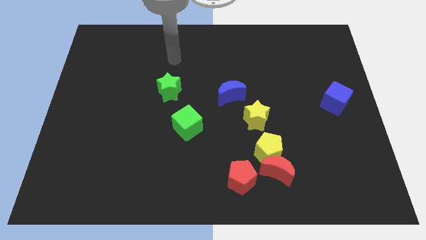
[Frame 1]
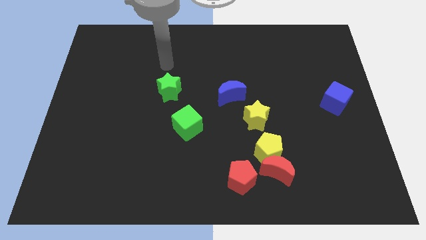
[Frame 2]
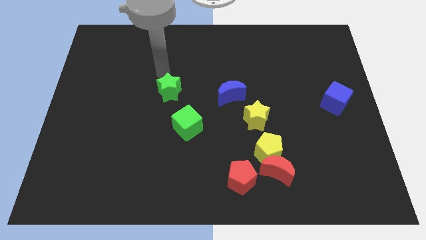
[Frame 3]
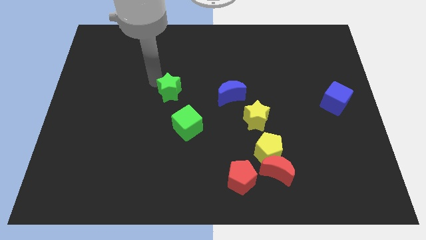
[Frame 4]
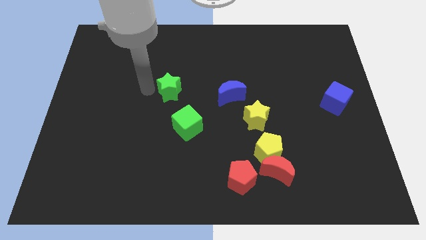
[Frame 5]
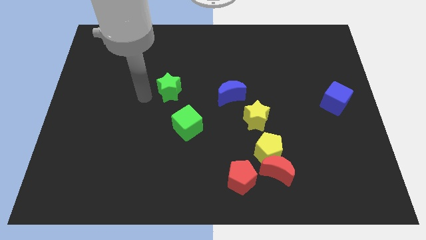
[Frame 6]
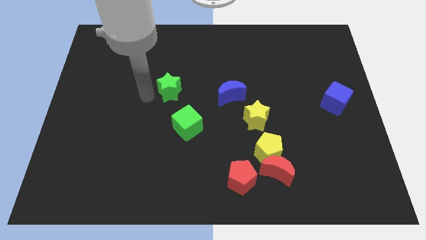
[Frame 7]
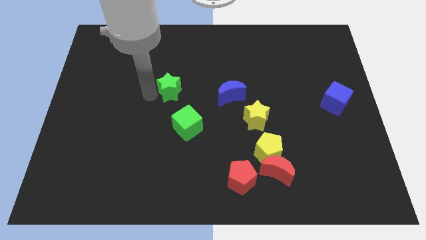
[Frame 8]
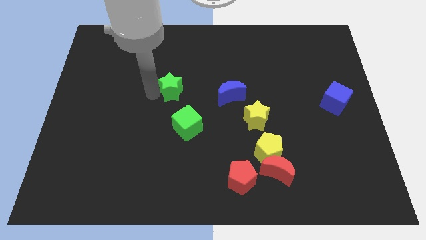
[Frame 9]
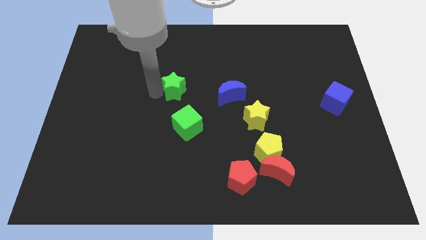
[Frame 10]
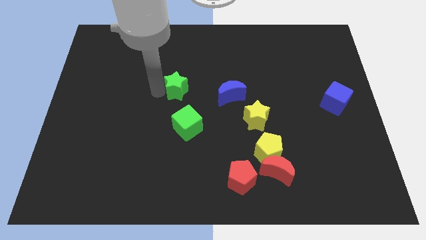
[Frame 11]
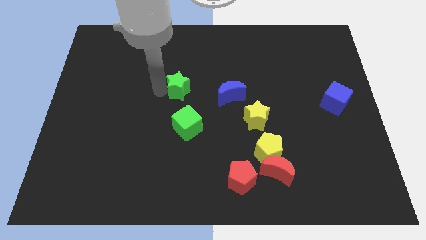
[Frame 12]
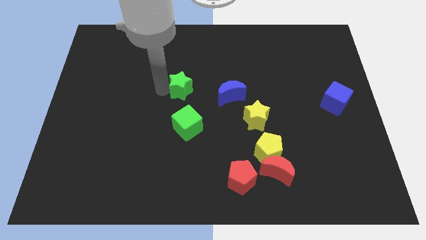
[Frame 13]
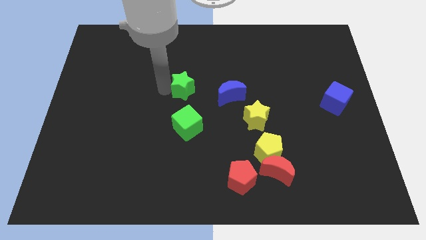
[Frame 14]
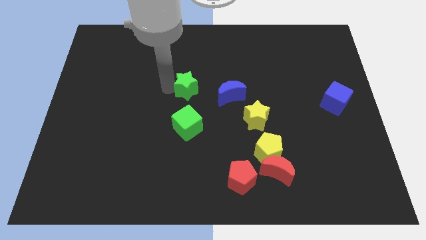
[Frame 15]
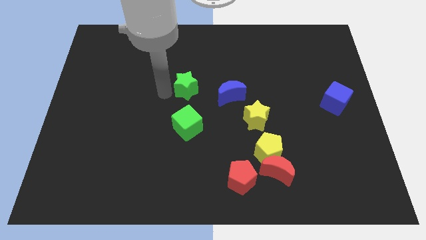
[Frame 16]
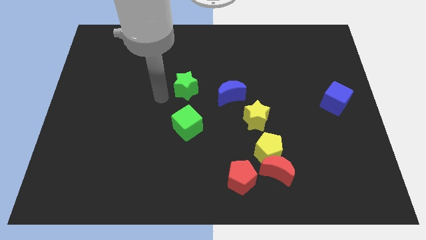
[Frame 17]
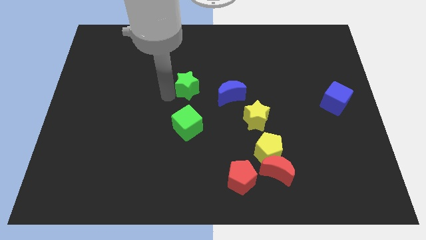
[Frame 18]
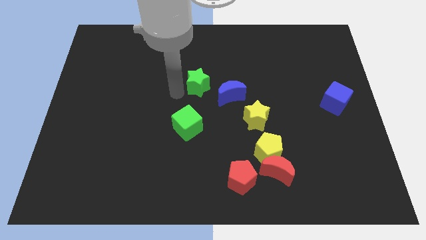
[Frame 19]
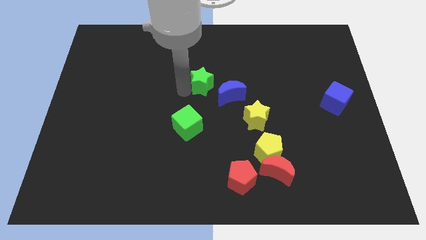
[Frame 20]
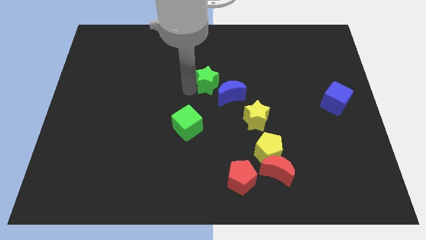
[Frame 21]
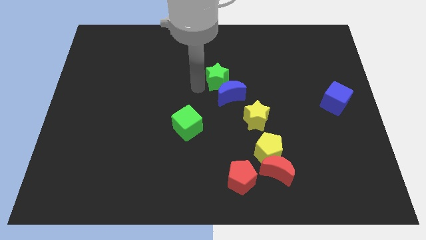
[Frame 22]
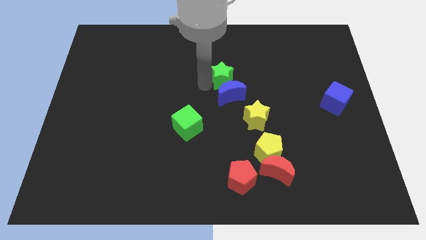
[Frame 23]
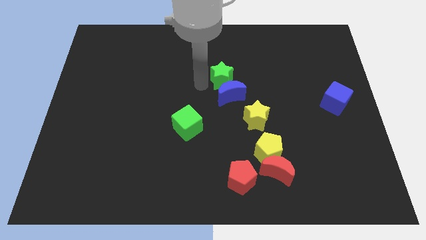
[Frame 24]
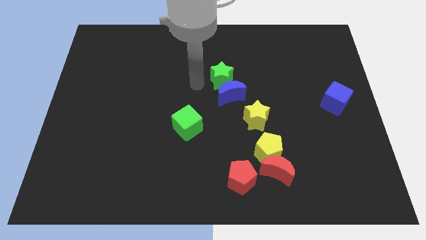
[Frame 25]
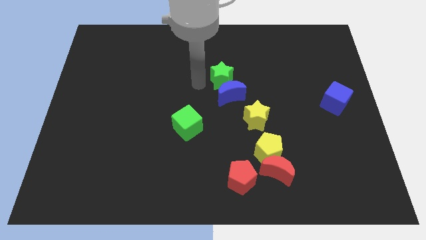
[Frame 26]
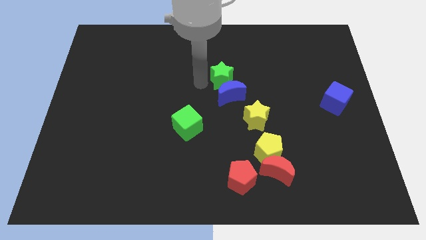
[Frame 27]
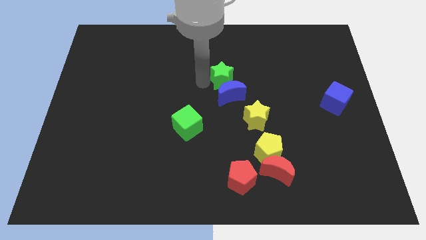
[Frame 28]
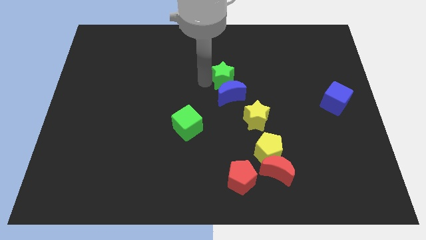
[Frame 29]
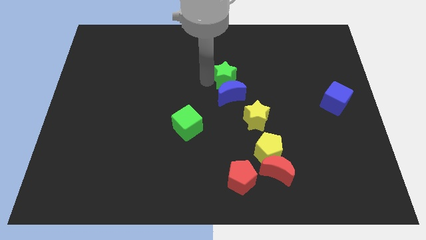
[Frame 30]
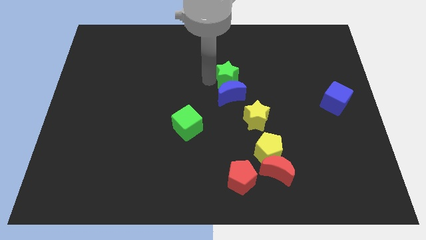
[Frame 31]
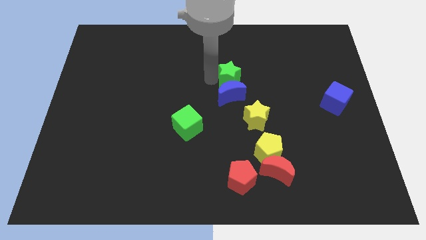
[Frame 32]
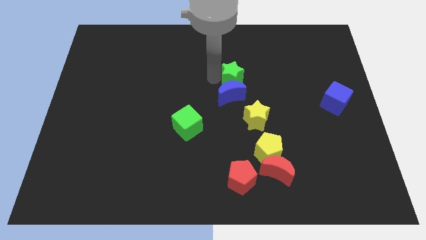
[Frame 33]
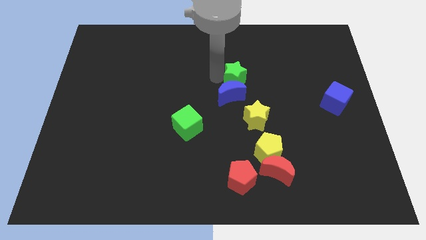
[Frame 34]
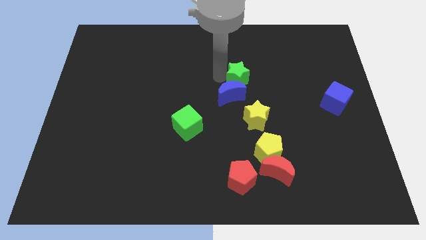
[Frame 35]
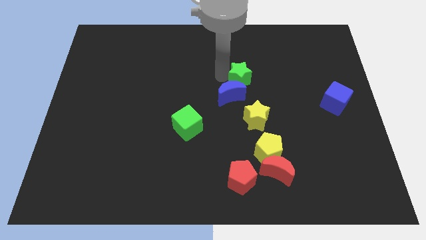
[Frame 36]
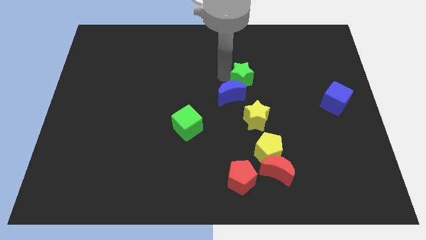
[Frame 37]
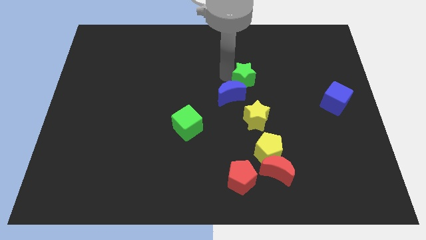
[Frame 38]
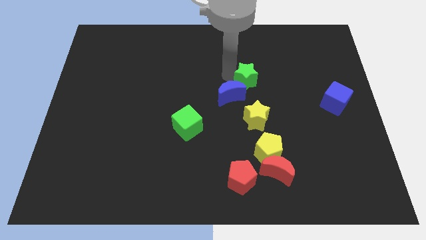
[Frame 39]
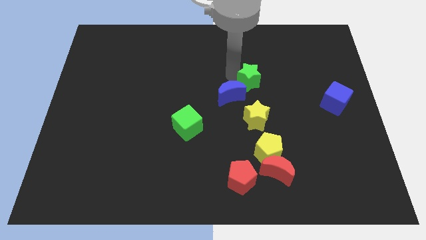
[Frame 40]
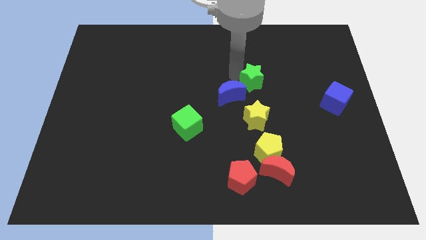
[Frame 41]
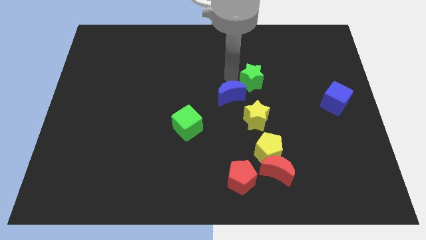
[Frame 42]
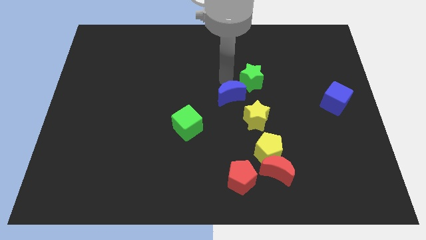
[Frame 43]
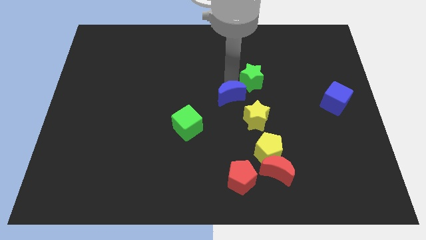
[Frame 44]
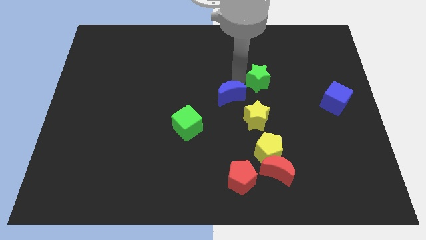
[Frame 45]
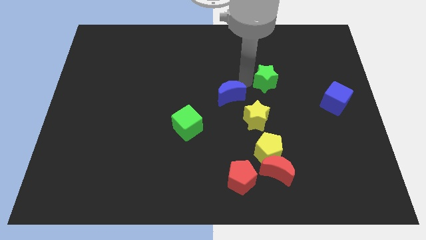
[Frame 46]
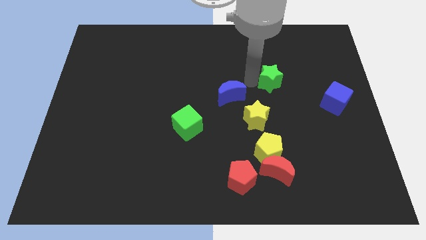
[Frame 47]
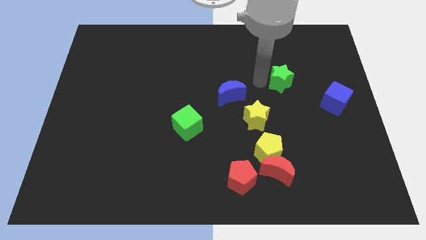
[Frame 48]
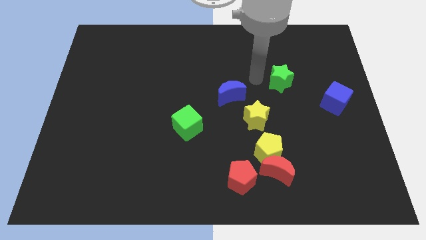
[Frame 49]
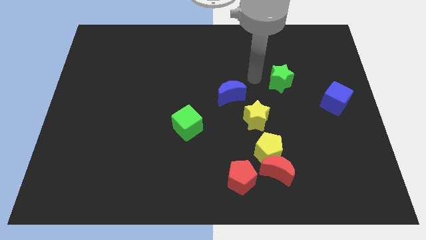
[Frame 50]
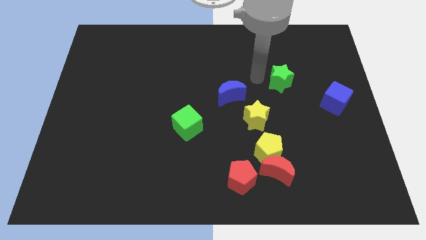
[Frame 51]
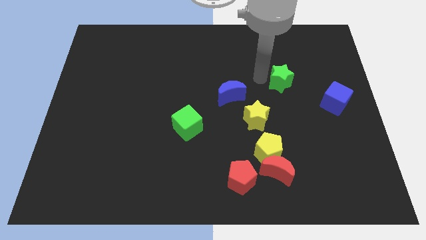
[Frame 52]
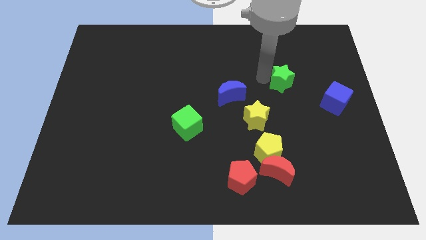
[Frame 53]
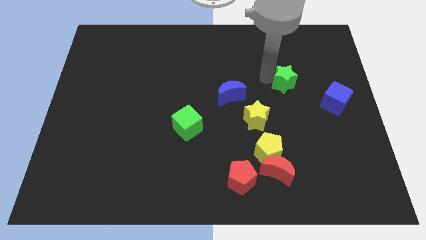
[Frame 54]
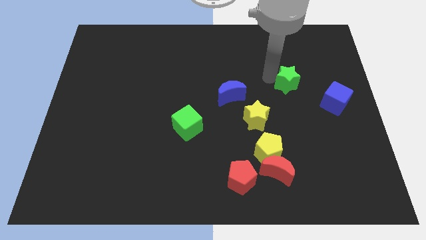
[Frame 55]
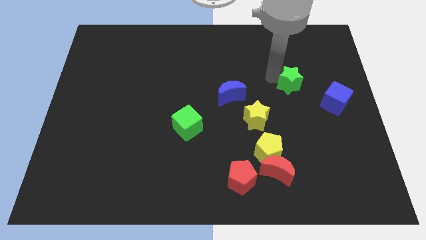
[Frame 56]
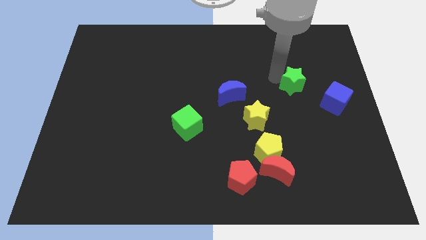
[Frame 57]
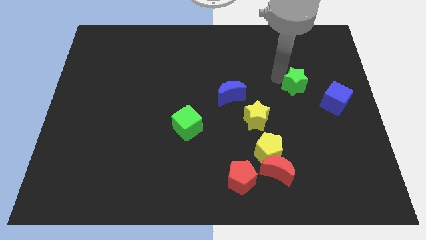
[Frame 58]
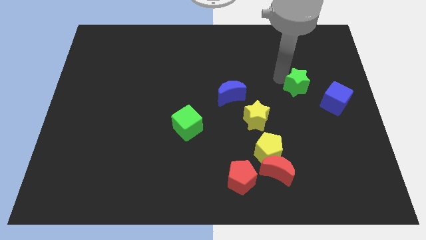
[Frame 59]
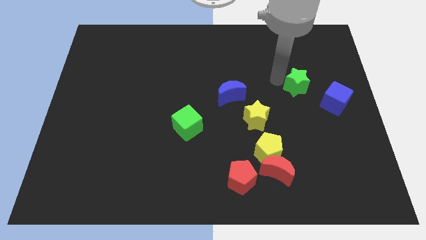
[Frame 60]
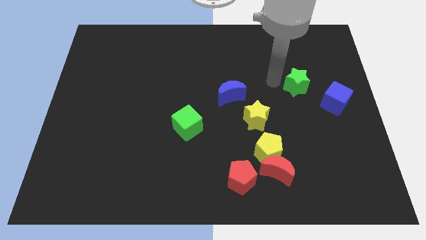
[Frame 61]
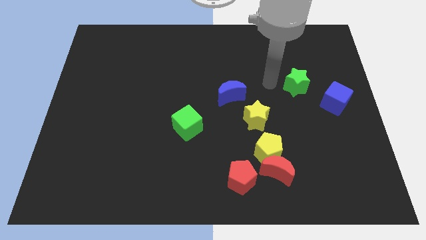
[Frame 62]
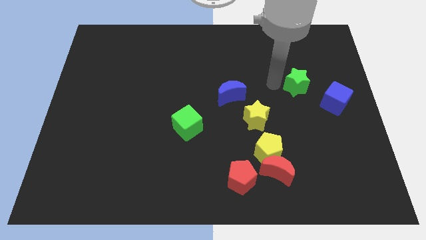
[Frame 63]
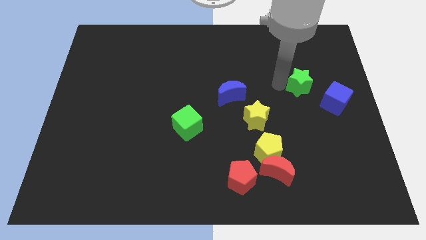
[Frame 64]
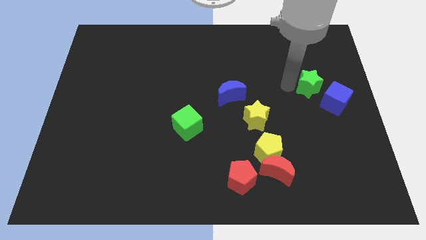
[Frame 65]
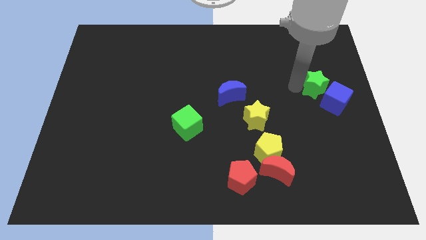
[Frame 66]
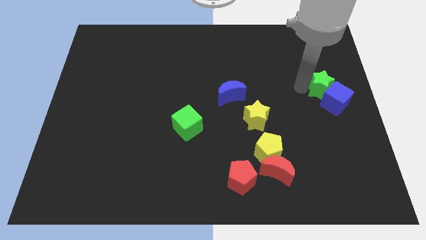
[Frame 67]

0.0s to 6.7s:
push the green star to the center right
